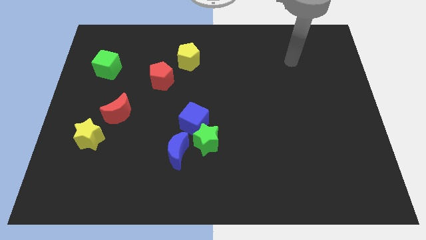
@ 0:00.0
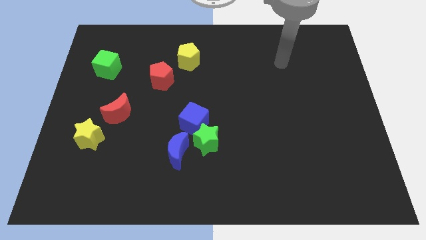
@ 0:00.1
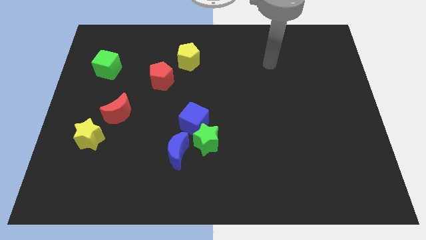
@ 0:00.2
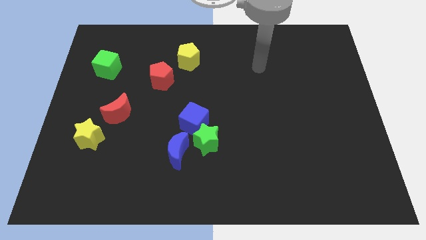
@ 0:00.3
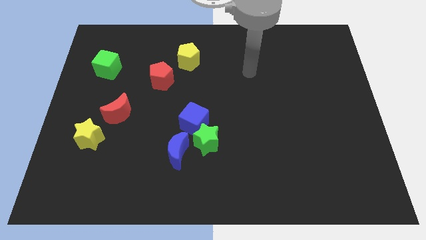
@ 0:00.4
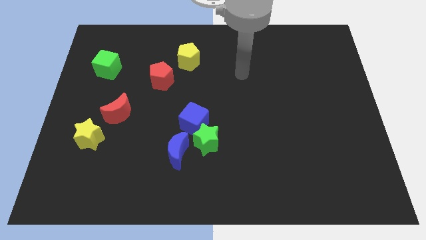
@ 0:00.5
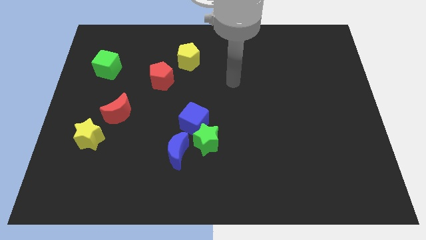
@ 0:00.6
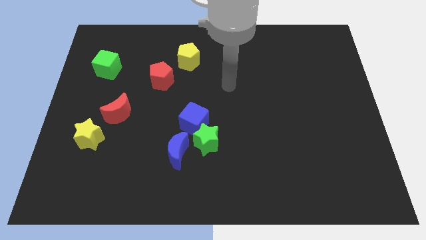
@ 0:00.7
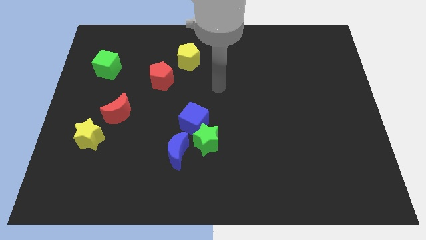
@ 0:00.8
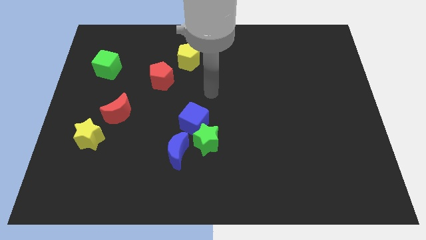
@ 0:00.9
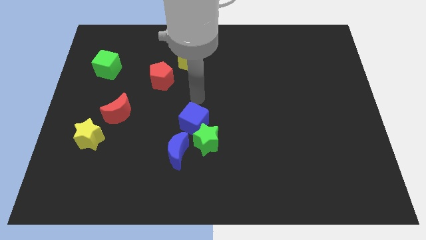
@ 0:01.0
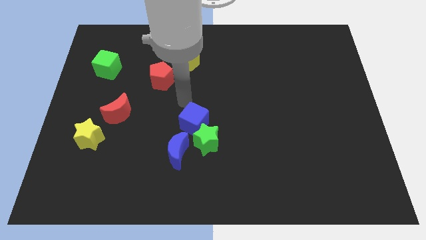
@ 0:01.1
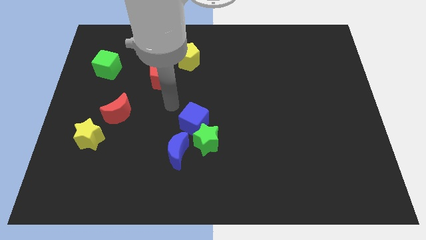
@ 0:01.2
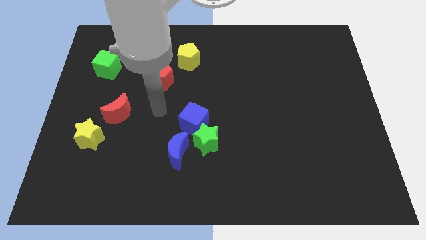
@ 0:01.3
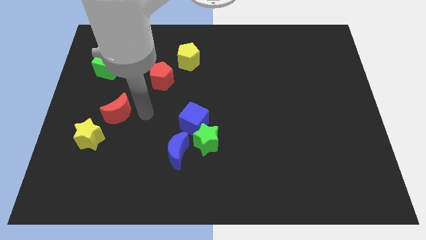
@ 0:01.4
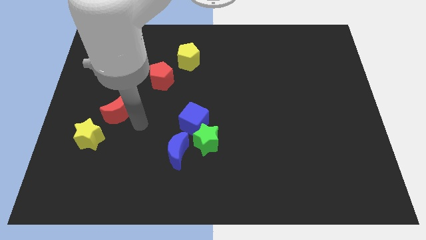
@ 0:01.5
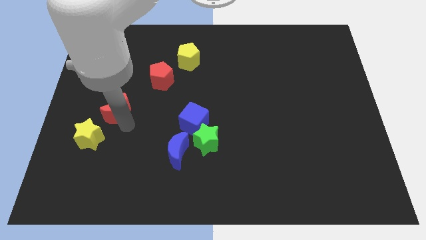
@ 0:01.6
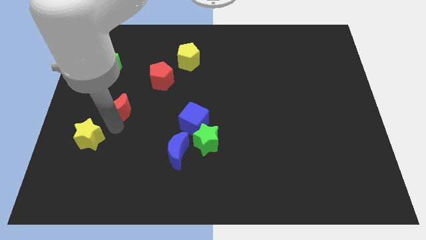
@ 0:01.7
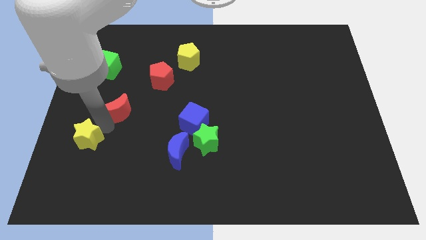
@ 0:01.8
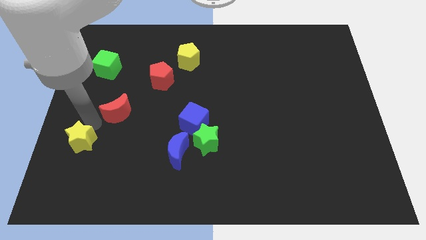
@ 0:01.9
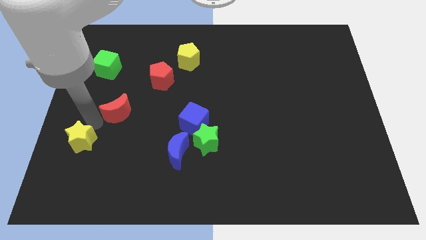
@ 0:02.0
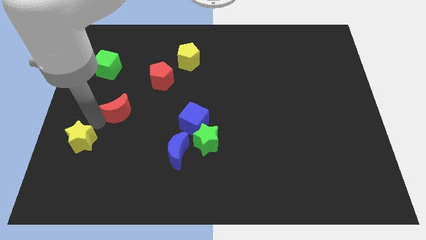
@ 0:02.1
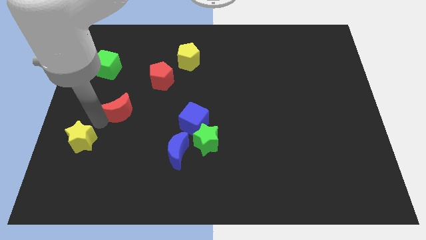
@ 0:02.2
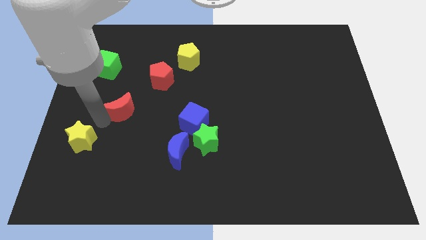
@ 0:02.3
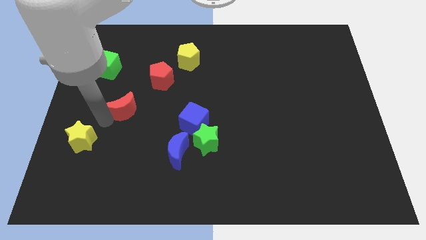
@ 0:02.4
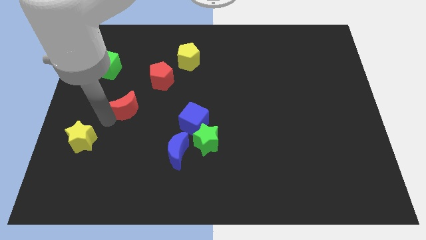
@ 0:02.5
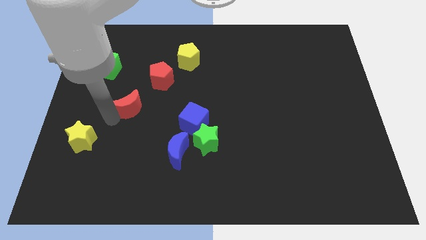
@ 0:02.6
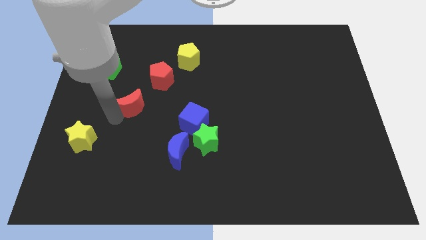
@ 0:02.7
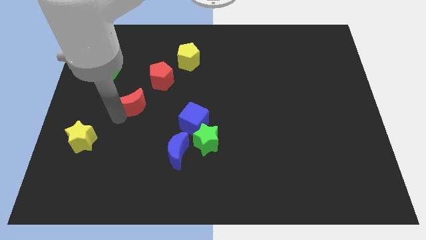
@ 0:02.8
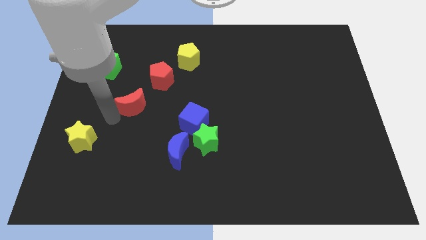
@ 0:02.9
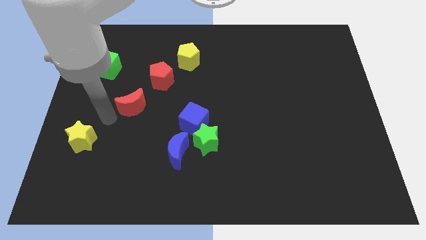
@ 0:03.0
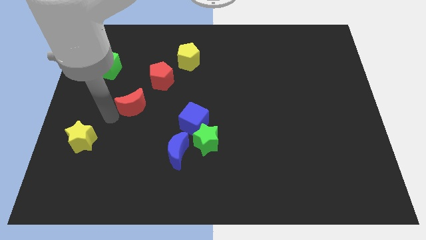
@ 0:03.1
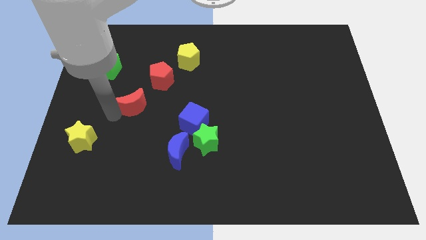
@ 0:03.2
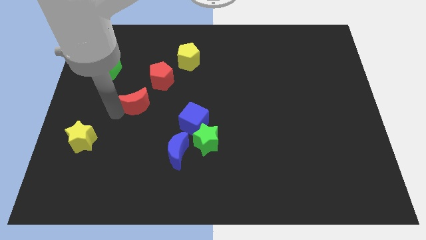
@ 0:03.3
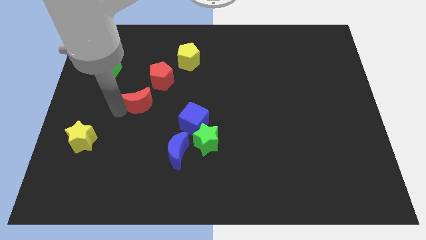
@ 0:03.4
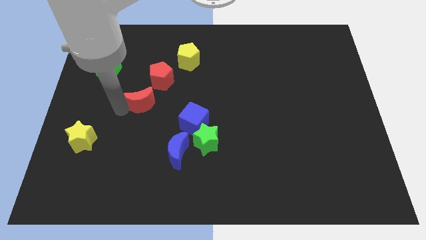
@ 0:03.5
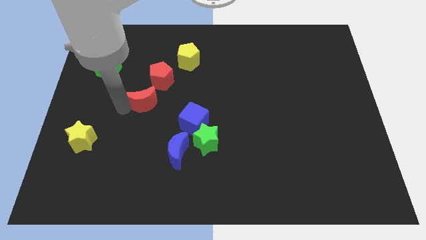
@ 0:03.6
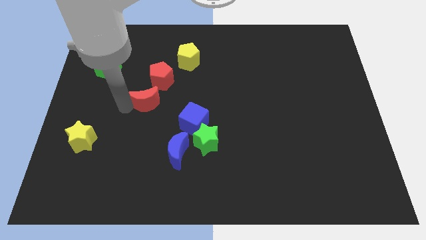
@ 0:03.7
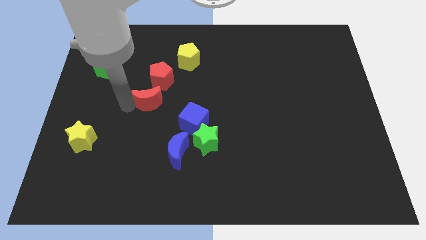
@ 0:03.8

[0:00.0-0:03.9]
slightly push the red moon upwards and right diagonally

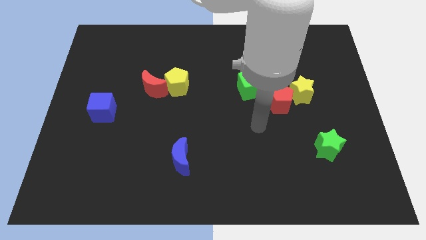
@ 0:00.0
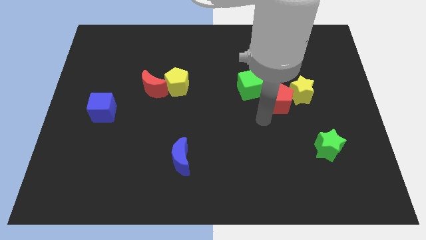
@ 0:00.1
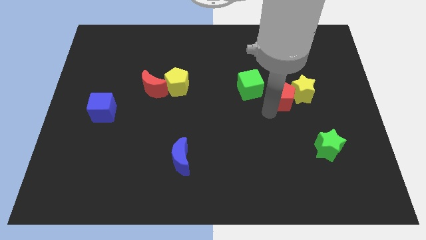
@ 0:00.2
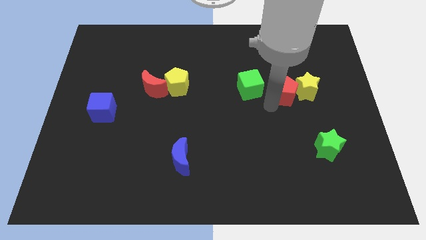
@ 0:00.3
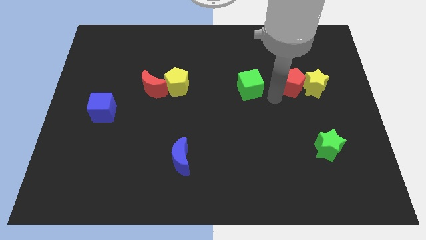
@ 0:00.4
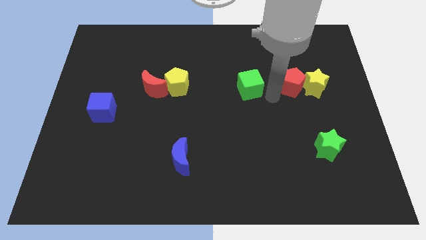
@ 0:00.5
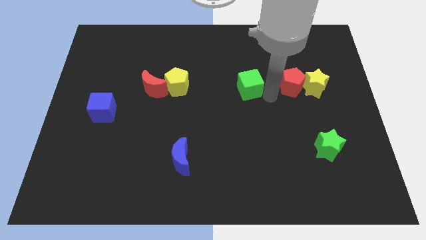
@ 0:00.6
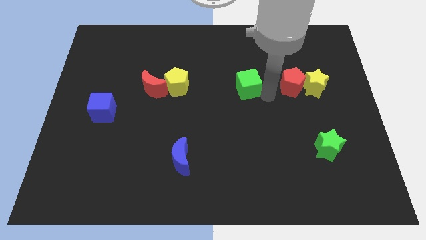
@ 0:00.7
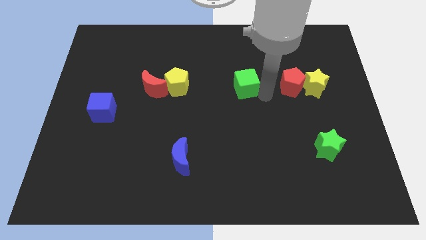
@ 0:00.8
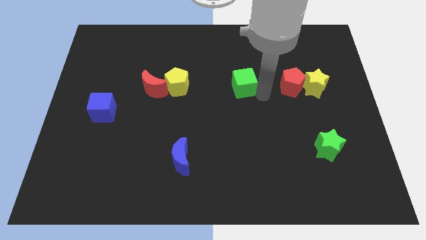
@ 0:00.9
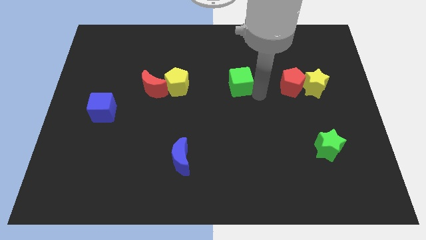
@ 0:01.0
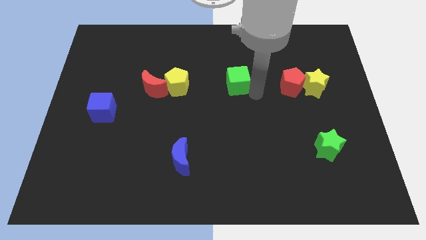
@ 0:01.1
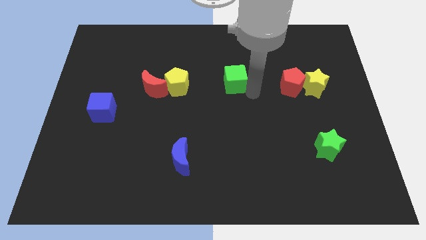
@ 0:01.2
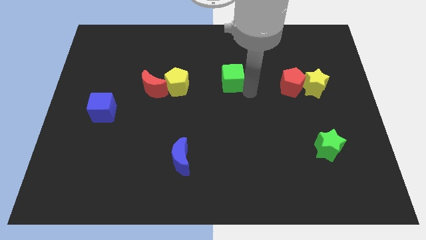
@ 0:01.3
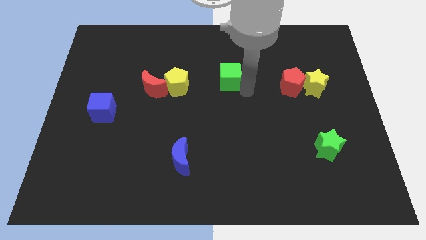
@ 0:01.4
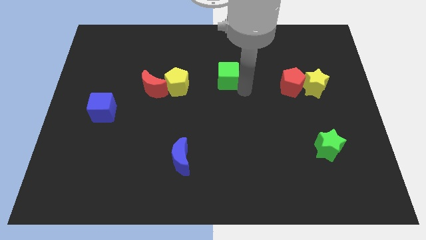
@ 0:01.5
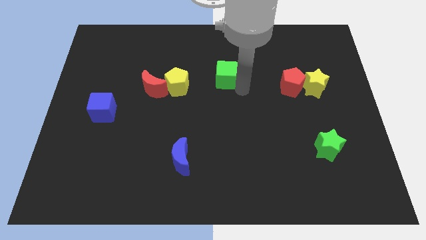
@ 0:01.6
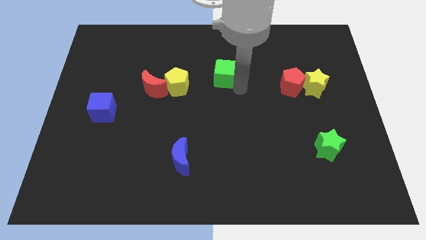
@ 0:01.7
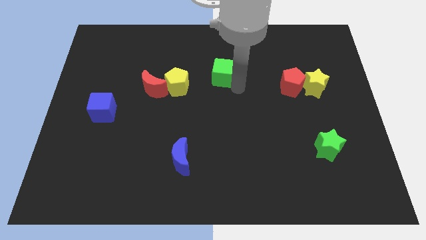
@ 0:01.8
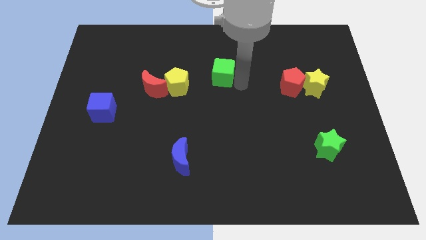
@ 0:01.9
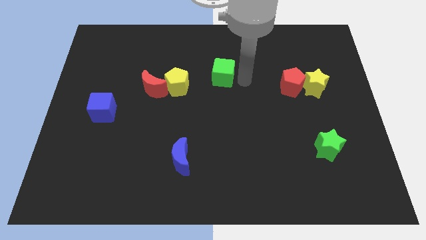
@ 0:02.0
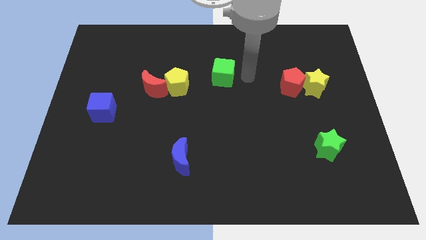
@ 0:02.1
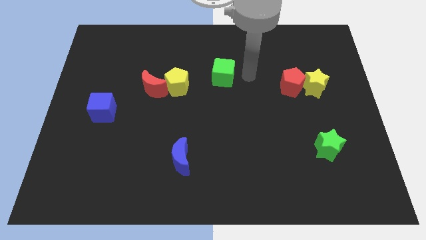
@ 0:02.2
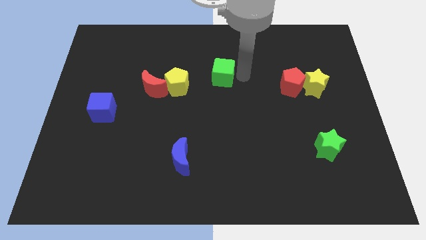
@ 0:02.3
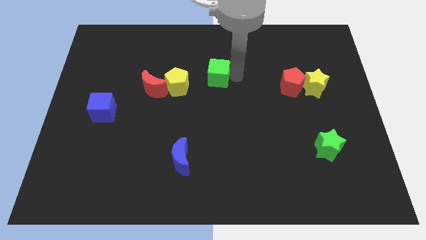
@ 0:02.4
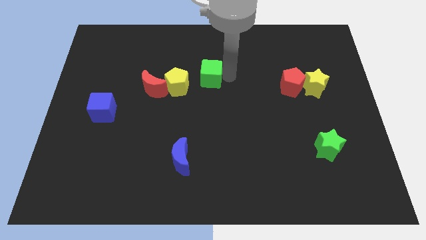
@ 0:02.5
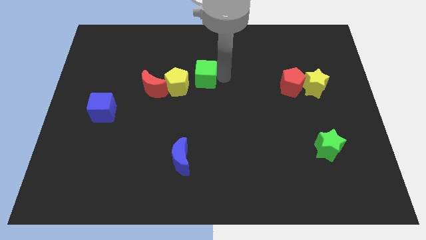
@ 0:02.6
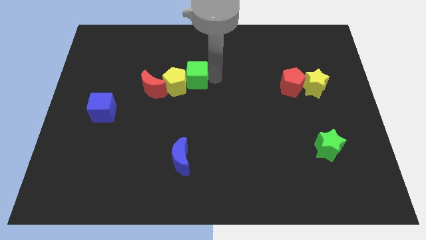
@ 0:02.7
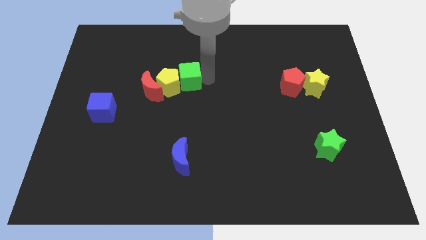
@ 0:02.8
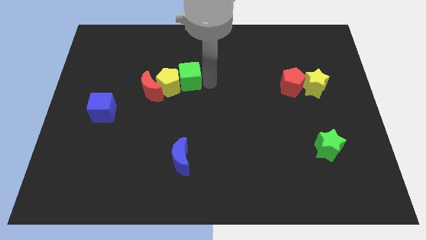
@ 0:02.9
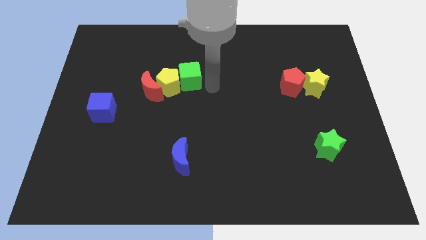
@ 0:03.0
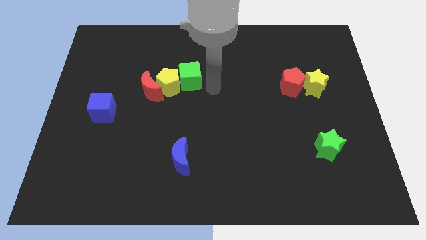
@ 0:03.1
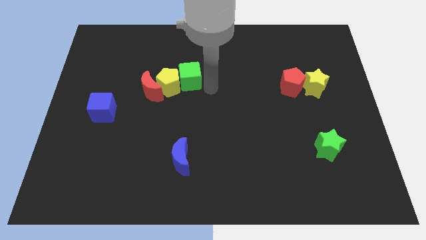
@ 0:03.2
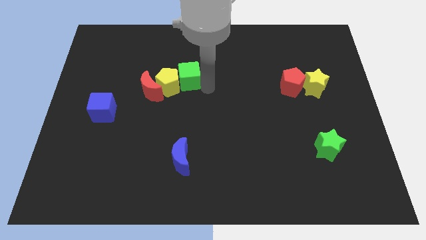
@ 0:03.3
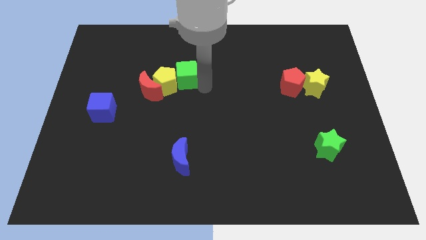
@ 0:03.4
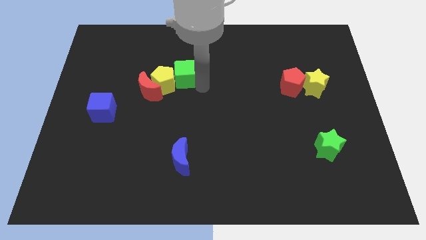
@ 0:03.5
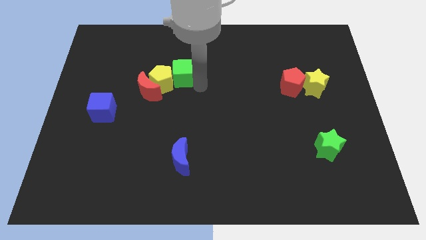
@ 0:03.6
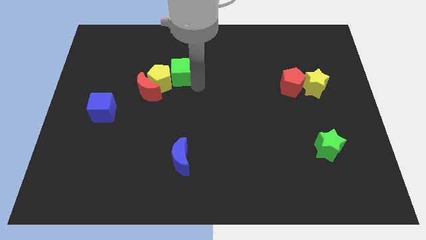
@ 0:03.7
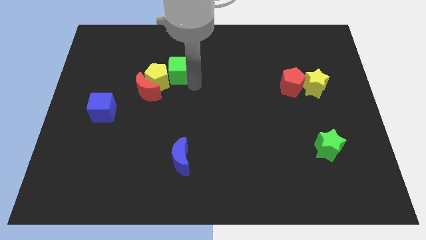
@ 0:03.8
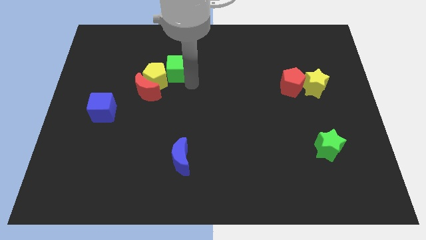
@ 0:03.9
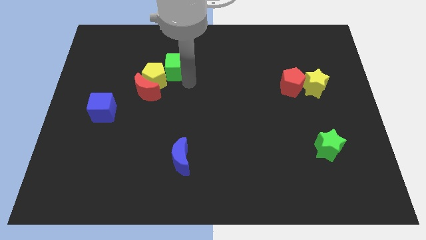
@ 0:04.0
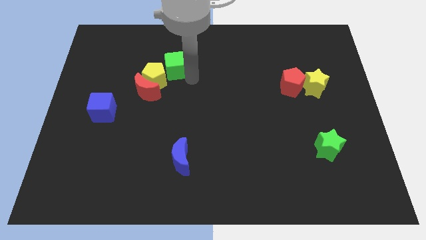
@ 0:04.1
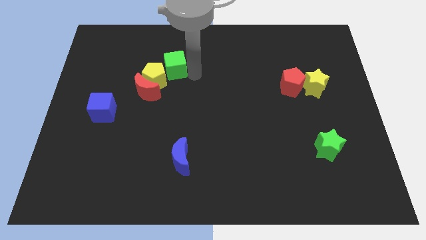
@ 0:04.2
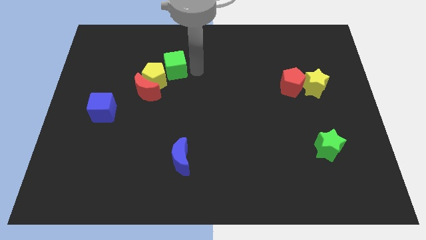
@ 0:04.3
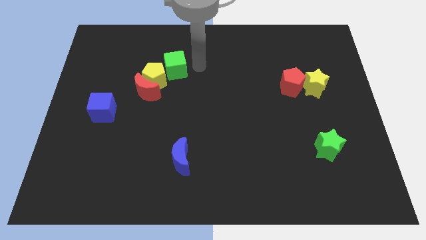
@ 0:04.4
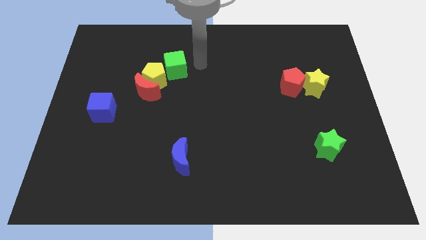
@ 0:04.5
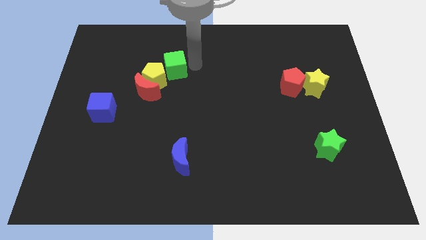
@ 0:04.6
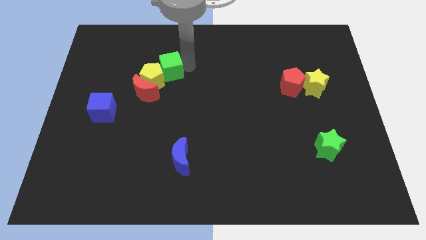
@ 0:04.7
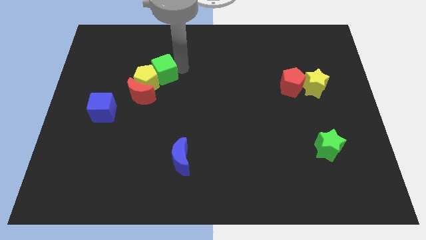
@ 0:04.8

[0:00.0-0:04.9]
move the green cube to the left
